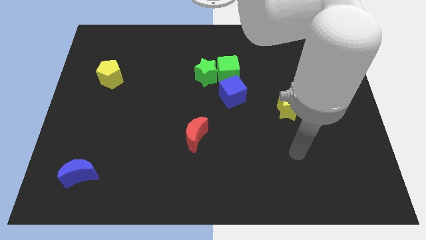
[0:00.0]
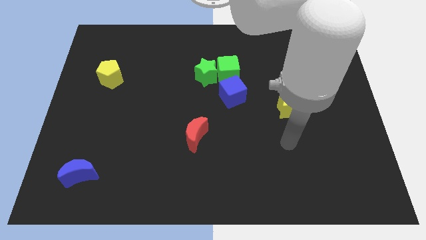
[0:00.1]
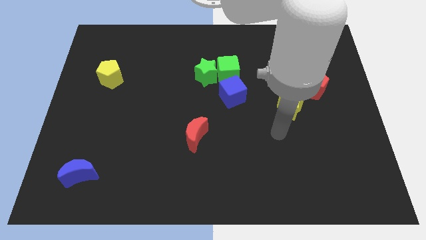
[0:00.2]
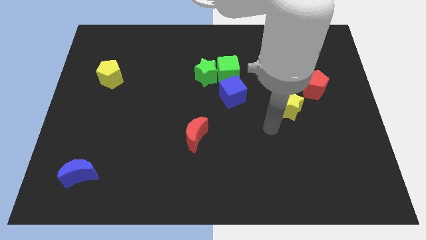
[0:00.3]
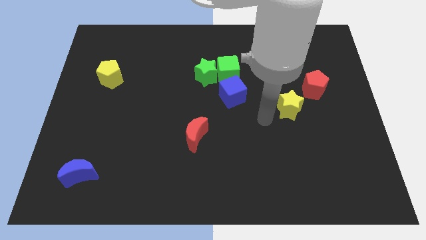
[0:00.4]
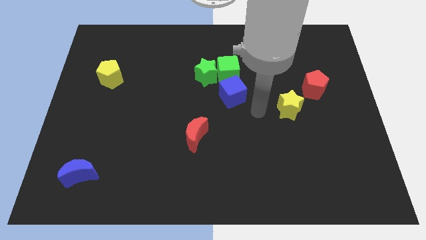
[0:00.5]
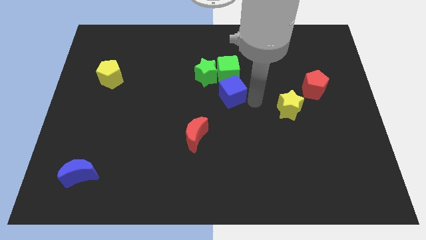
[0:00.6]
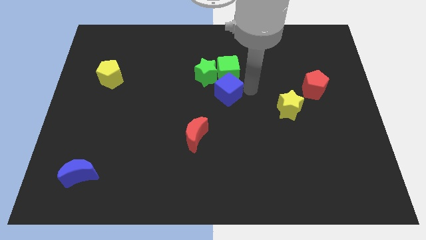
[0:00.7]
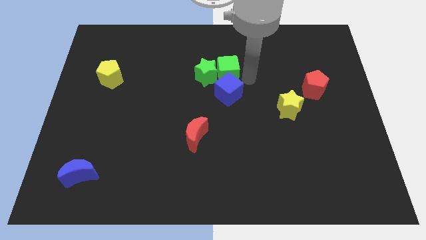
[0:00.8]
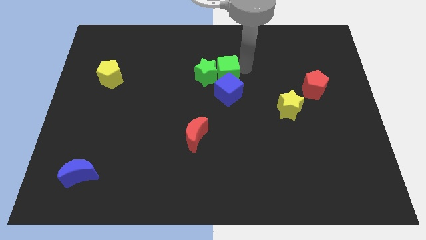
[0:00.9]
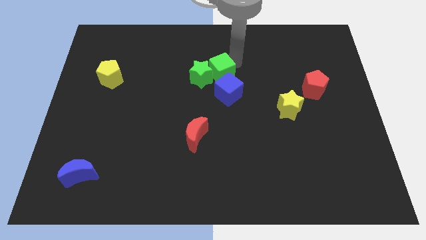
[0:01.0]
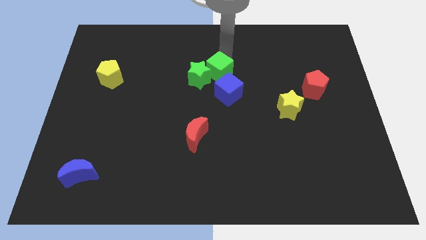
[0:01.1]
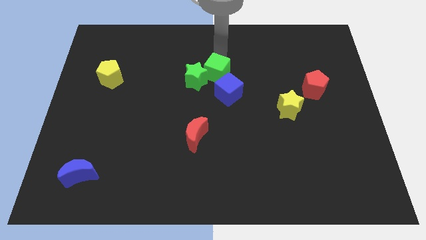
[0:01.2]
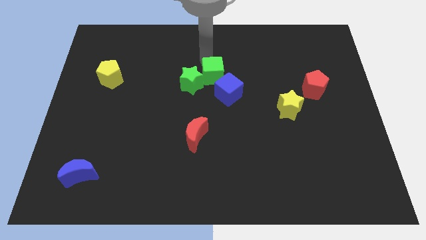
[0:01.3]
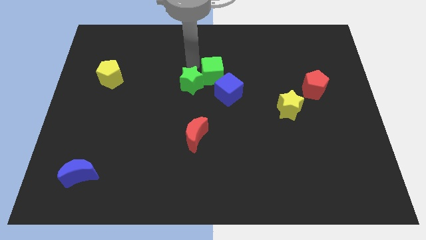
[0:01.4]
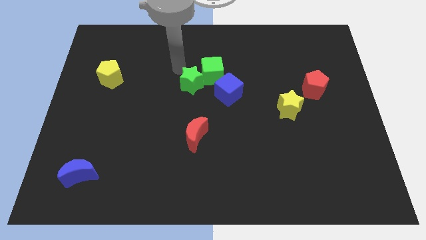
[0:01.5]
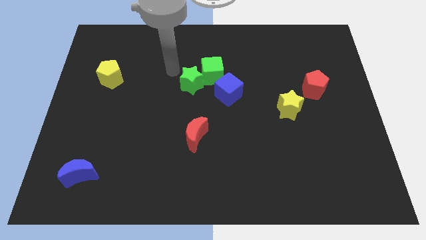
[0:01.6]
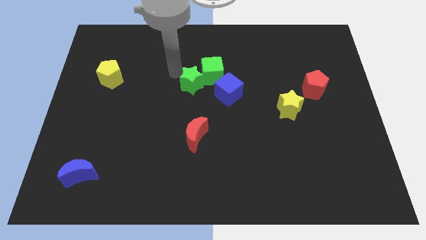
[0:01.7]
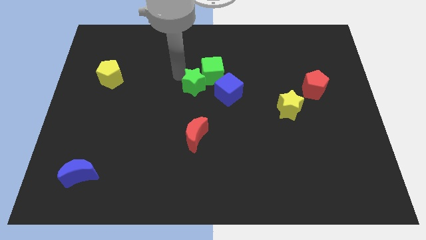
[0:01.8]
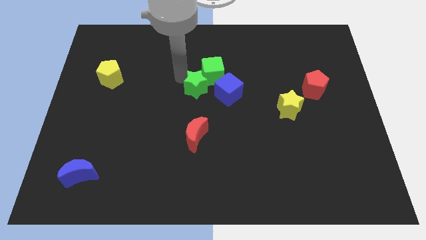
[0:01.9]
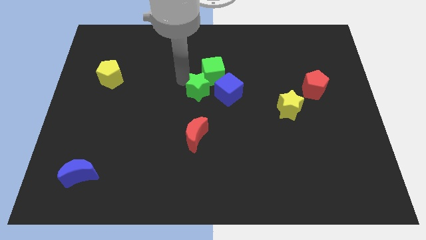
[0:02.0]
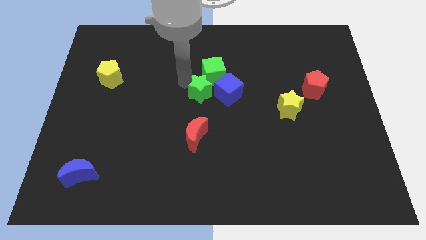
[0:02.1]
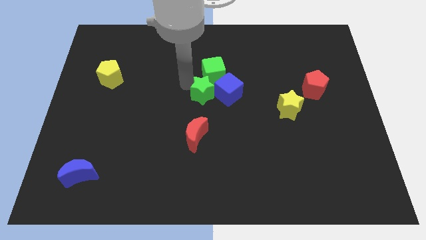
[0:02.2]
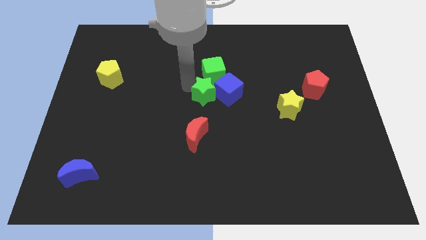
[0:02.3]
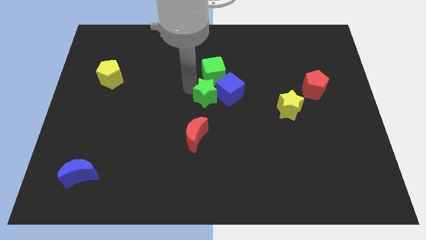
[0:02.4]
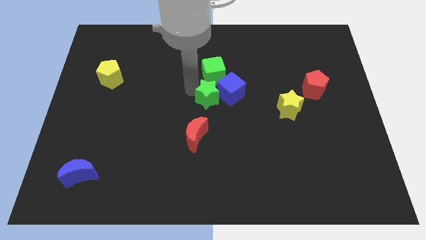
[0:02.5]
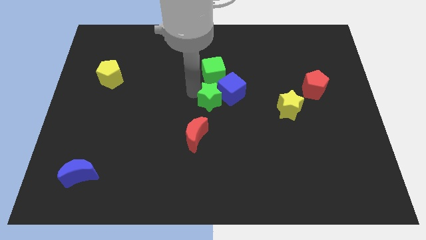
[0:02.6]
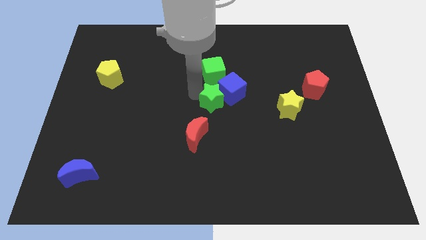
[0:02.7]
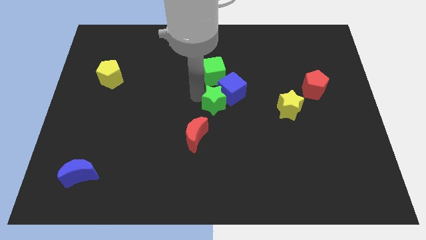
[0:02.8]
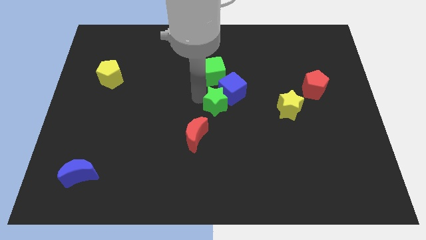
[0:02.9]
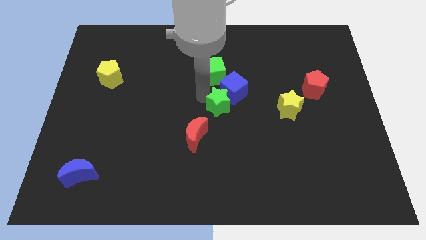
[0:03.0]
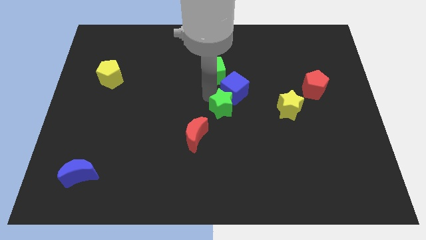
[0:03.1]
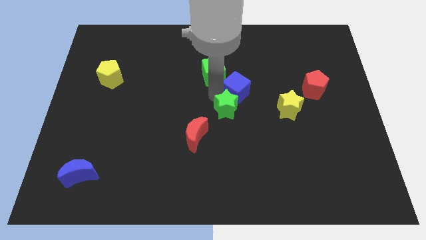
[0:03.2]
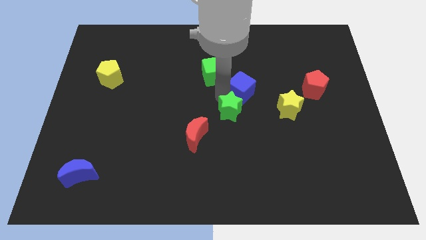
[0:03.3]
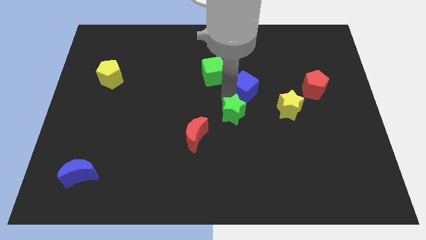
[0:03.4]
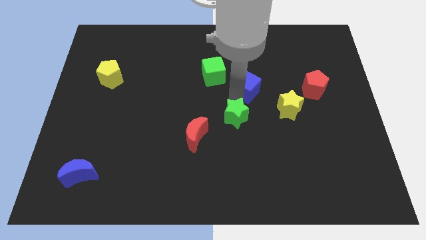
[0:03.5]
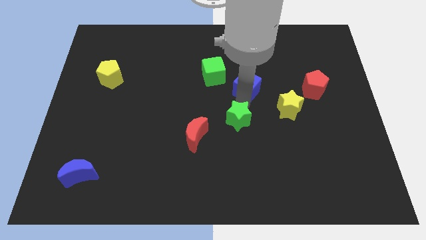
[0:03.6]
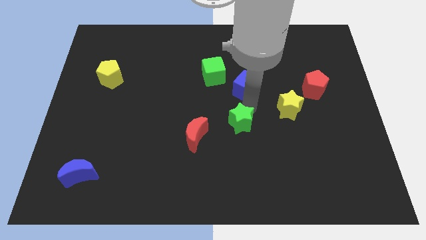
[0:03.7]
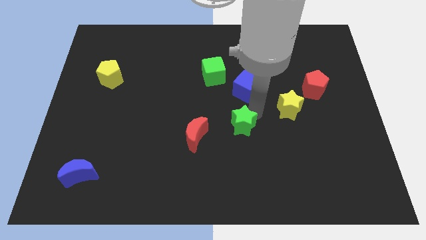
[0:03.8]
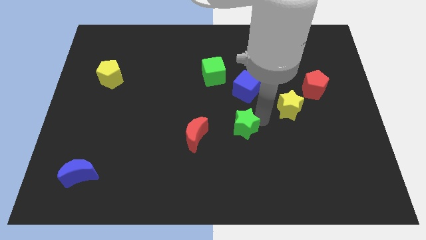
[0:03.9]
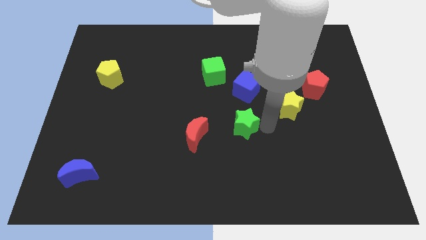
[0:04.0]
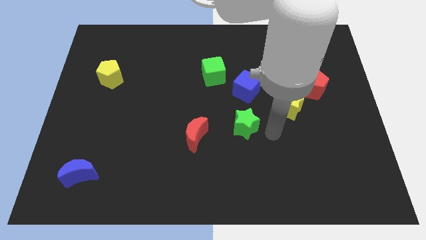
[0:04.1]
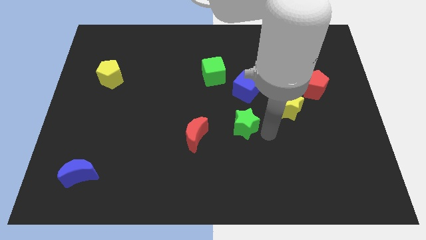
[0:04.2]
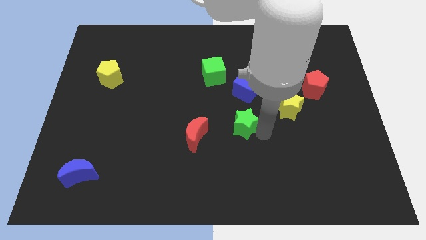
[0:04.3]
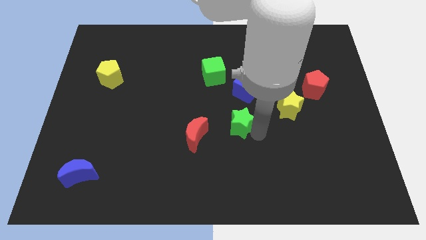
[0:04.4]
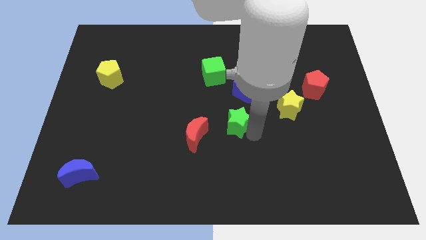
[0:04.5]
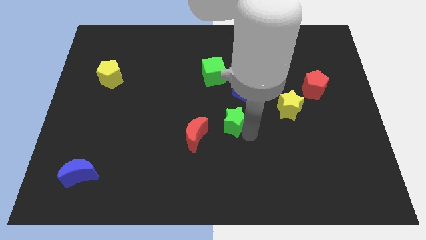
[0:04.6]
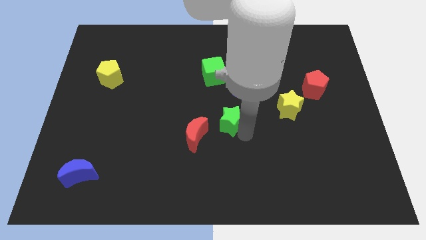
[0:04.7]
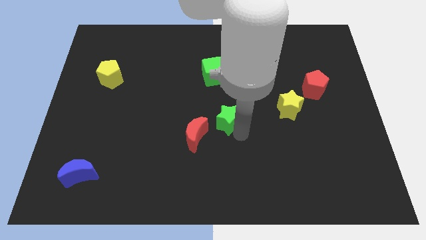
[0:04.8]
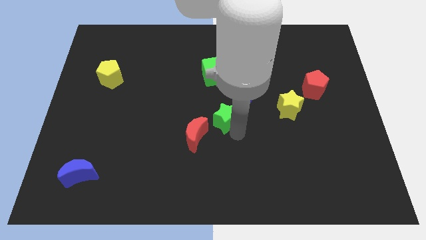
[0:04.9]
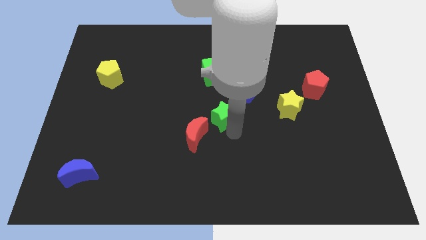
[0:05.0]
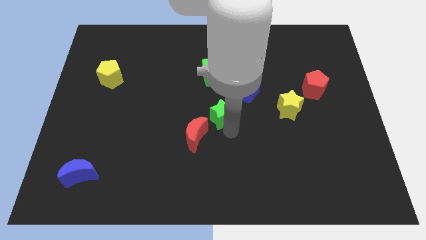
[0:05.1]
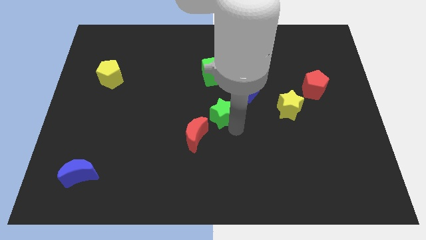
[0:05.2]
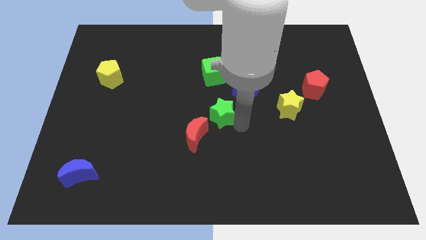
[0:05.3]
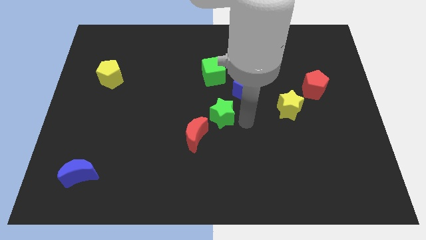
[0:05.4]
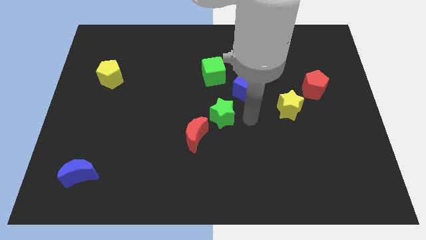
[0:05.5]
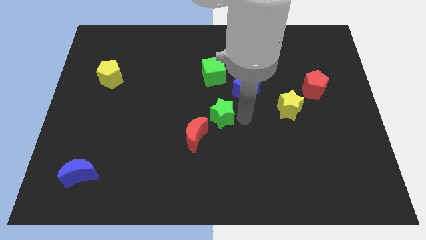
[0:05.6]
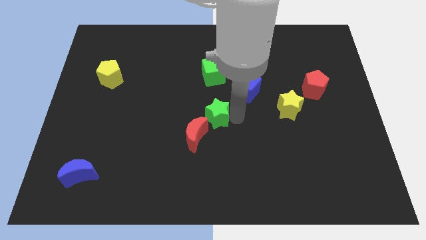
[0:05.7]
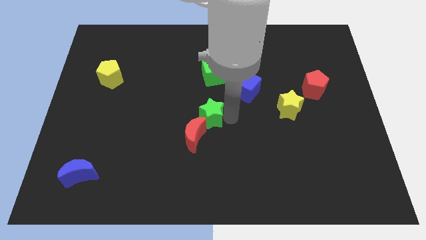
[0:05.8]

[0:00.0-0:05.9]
slide the green star towards the red moon

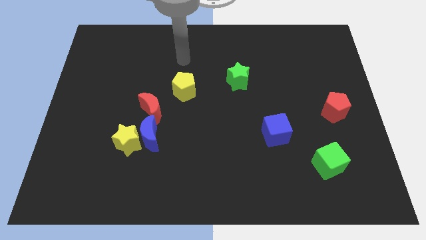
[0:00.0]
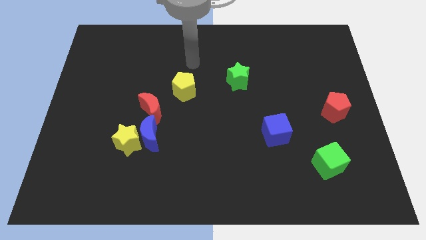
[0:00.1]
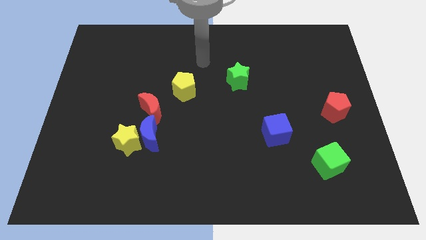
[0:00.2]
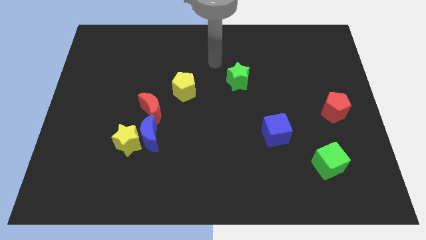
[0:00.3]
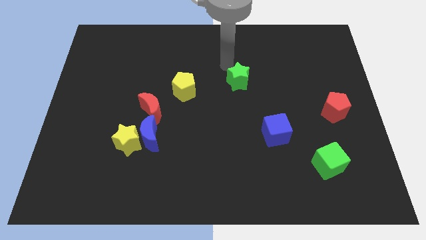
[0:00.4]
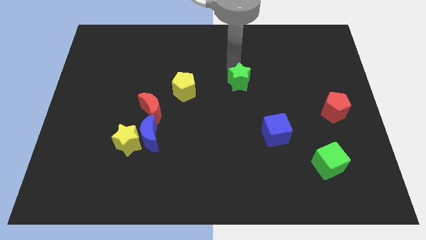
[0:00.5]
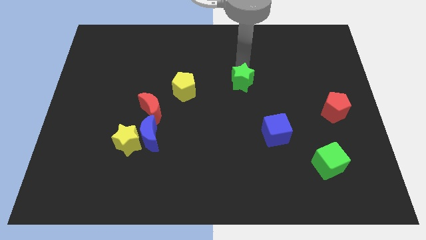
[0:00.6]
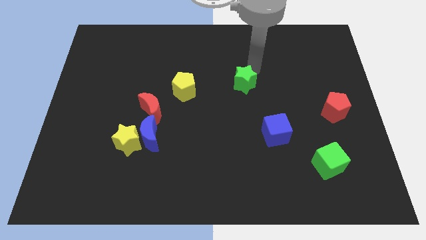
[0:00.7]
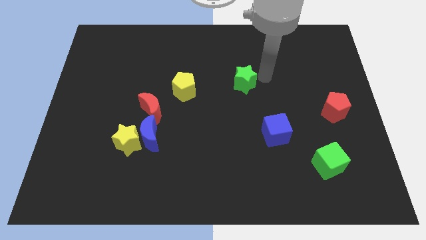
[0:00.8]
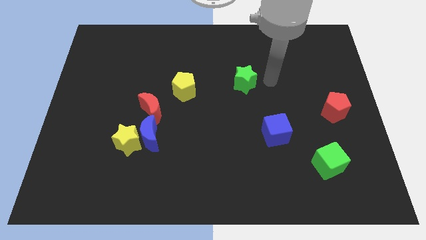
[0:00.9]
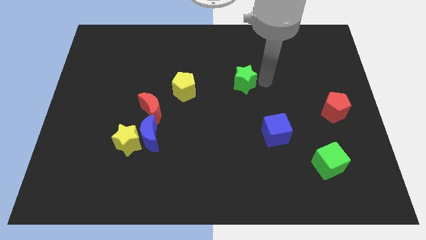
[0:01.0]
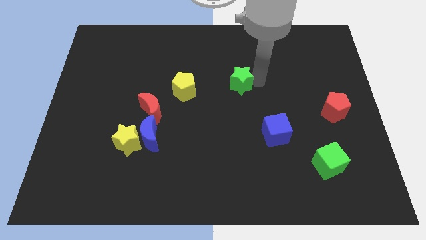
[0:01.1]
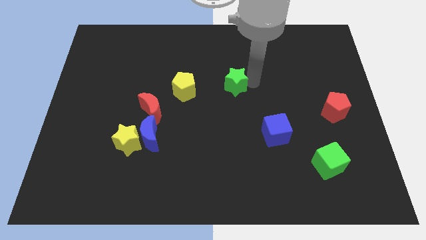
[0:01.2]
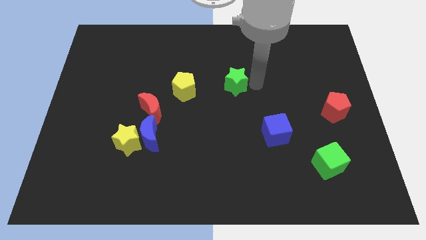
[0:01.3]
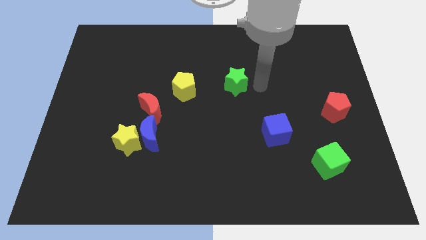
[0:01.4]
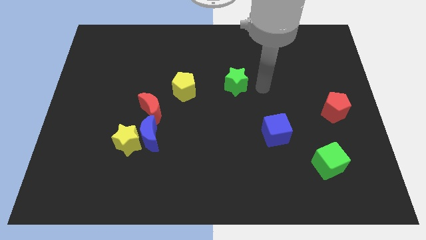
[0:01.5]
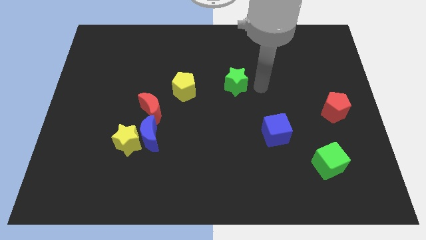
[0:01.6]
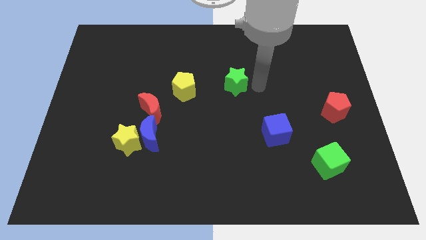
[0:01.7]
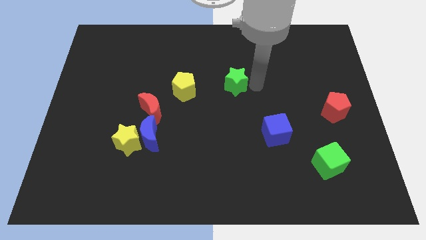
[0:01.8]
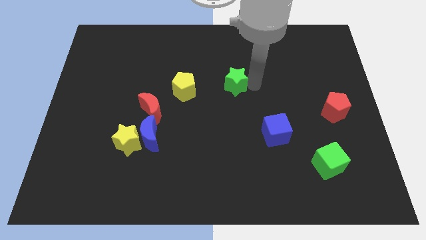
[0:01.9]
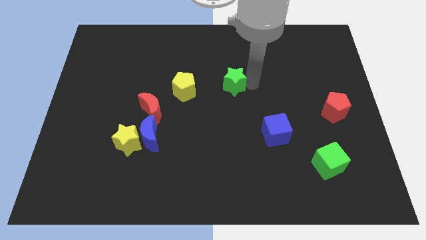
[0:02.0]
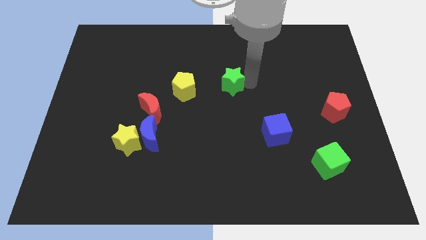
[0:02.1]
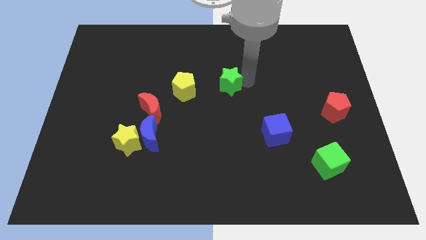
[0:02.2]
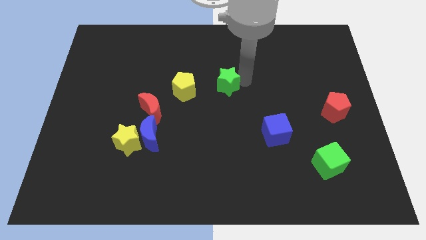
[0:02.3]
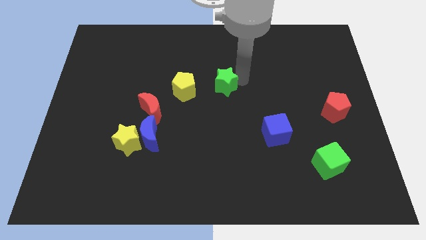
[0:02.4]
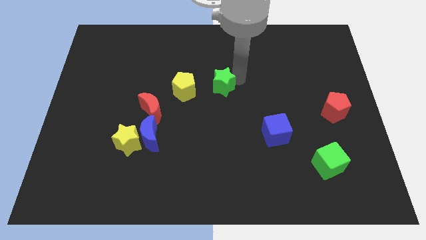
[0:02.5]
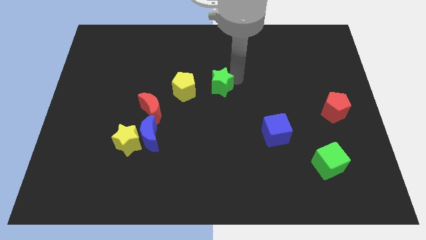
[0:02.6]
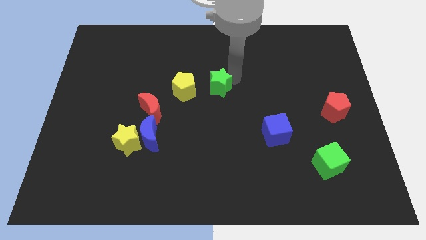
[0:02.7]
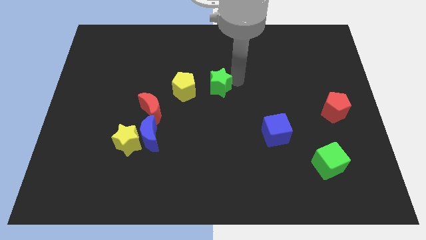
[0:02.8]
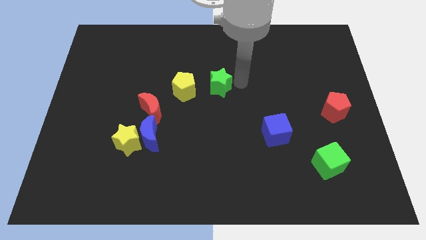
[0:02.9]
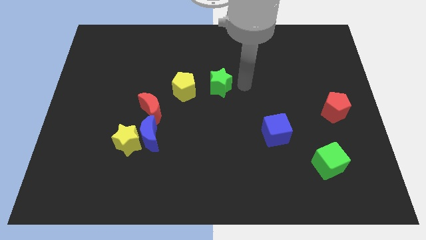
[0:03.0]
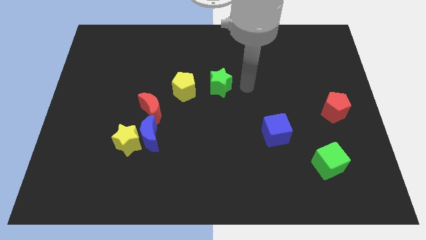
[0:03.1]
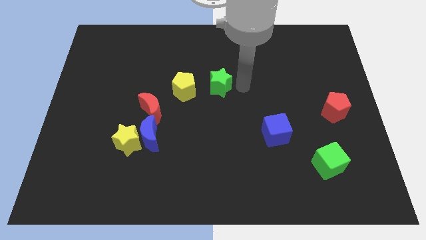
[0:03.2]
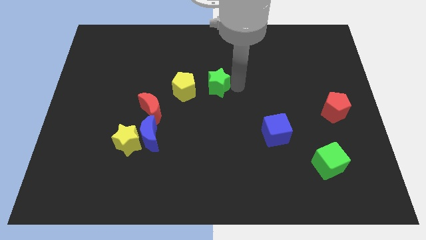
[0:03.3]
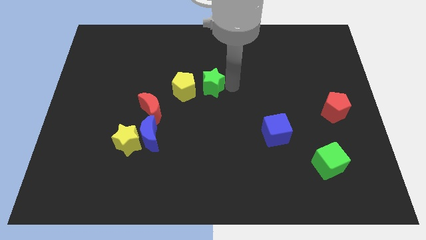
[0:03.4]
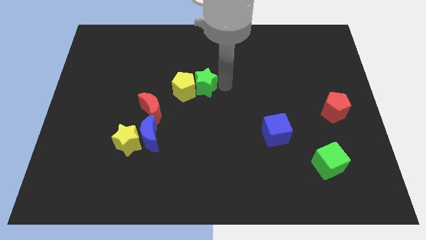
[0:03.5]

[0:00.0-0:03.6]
slide the green star next to the yellow pentagon
